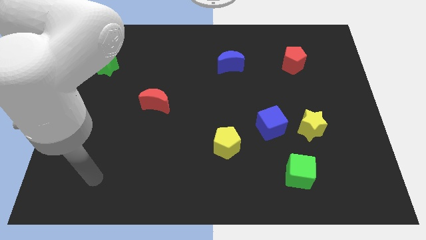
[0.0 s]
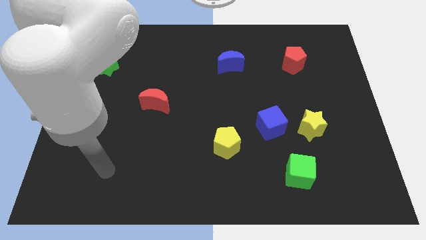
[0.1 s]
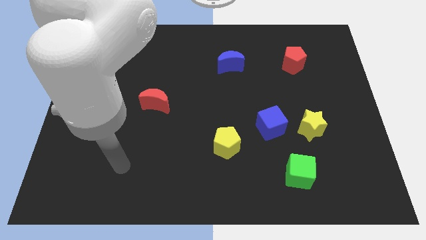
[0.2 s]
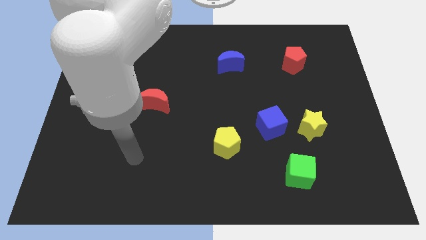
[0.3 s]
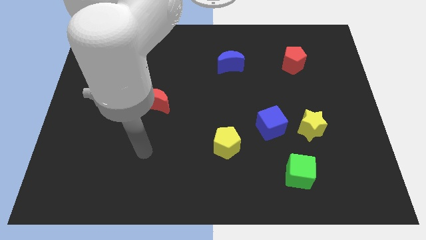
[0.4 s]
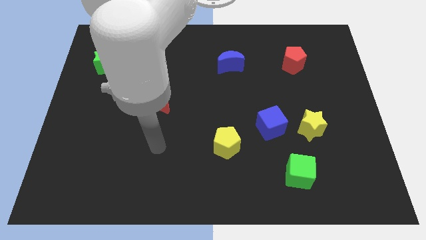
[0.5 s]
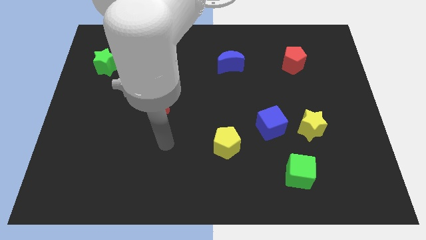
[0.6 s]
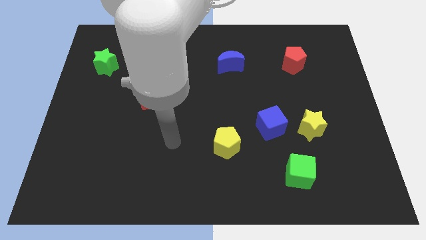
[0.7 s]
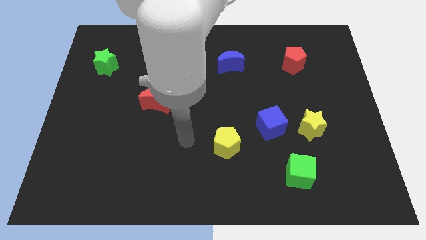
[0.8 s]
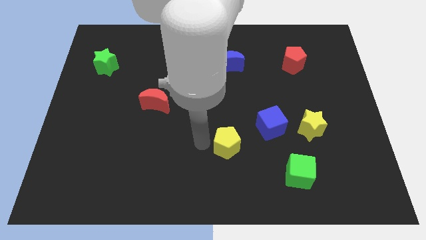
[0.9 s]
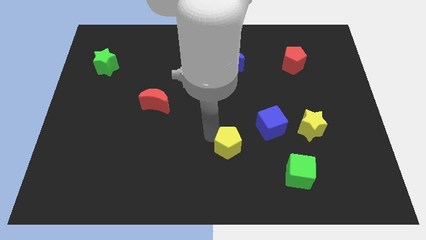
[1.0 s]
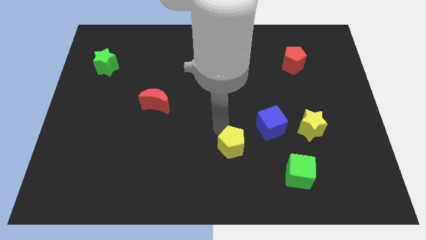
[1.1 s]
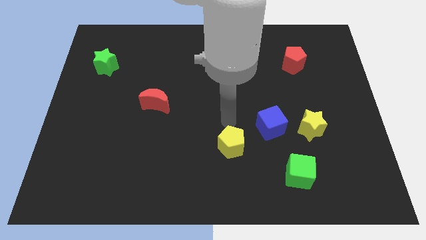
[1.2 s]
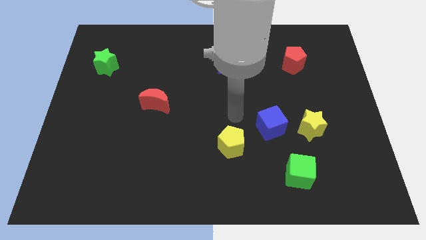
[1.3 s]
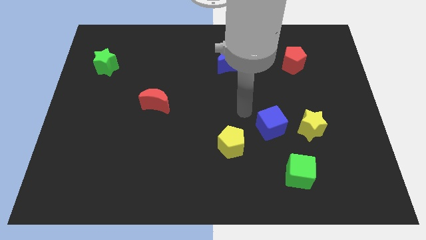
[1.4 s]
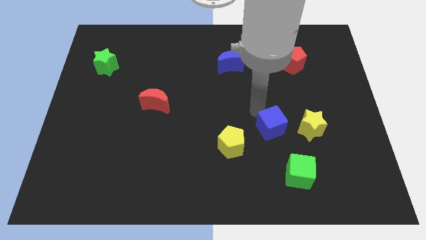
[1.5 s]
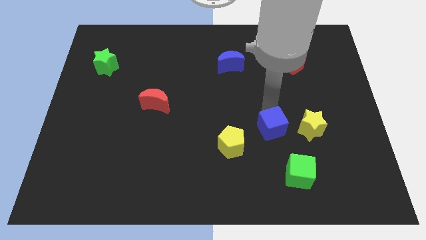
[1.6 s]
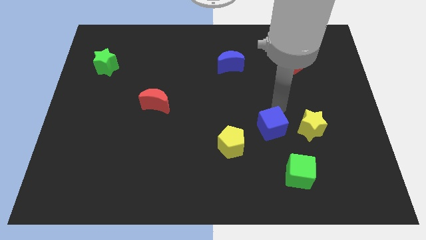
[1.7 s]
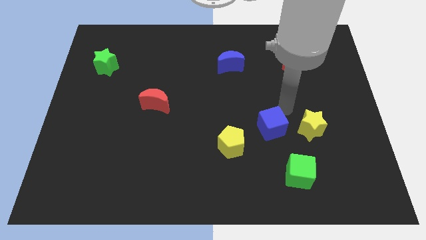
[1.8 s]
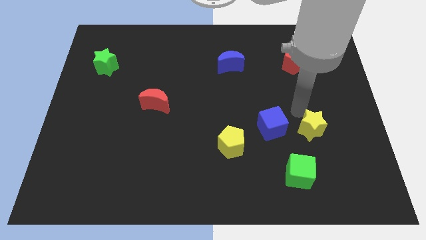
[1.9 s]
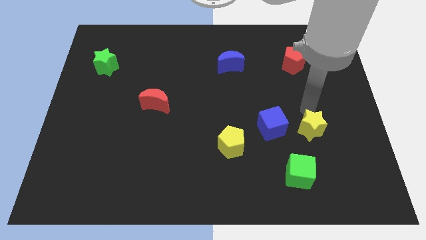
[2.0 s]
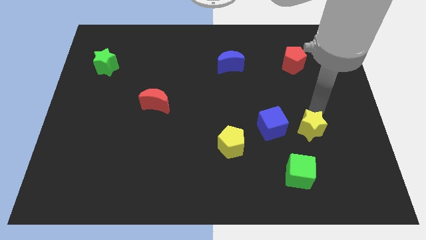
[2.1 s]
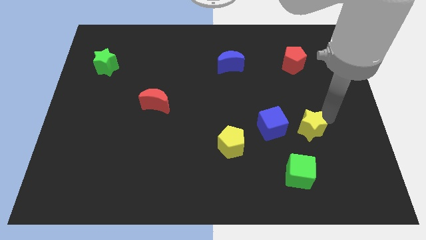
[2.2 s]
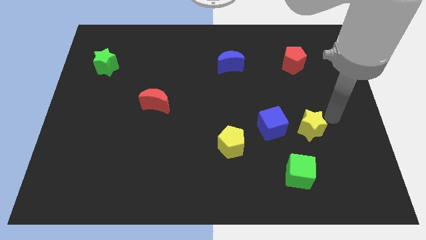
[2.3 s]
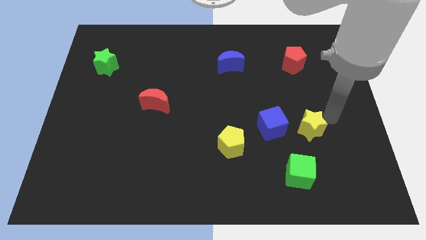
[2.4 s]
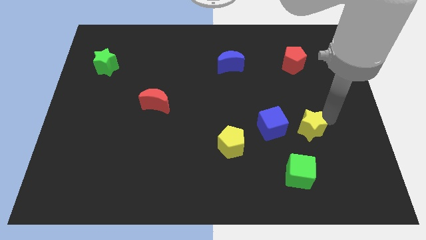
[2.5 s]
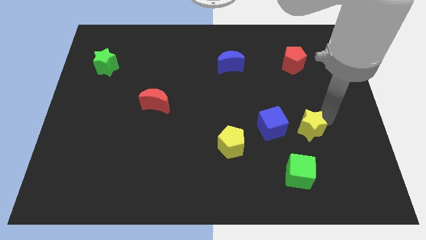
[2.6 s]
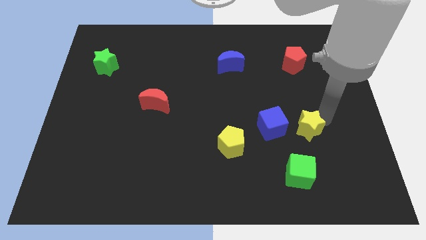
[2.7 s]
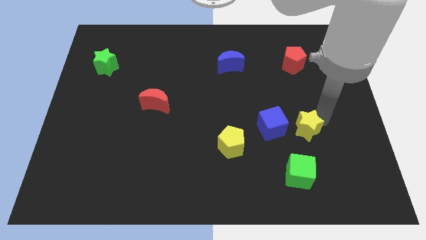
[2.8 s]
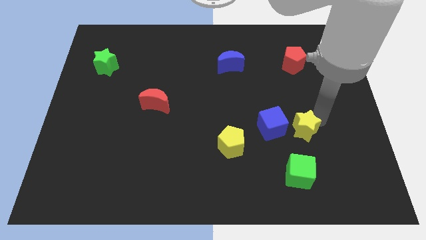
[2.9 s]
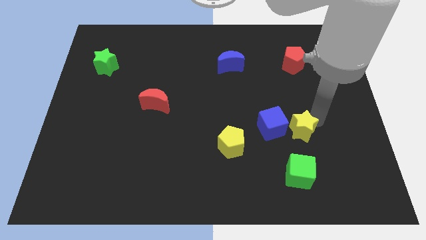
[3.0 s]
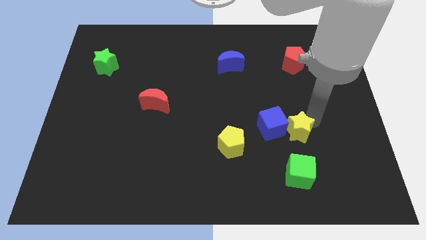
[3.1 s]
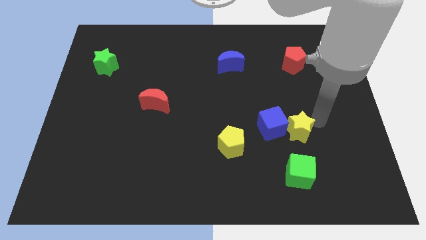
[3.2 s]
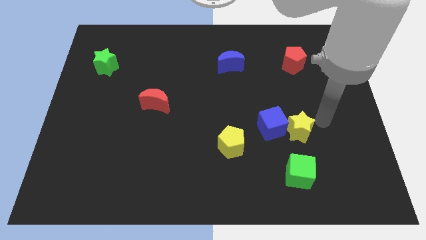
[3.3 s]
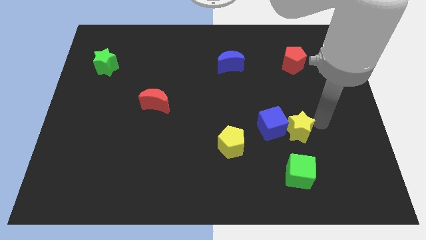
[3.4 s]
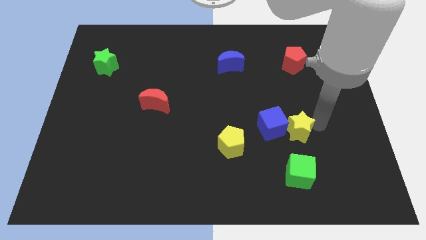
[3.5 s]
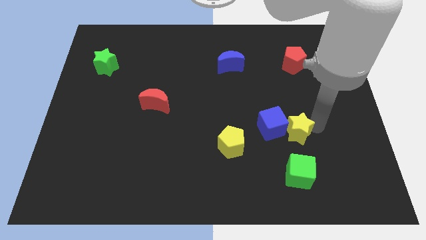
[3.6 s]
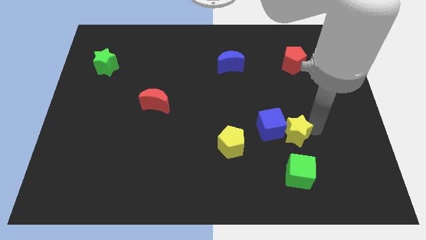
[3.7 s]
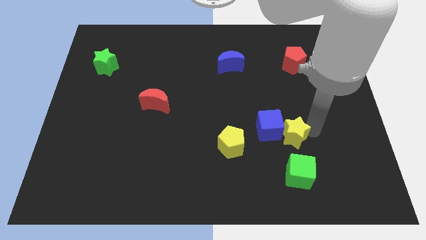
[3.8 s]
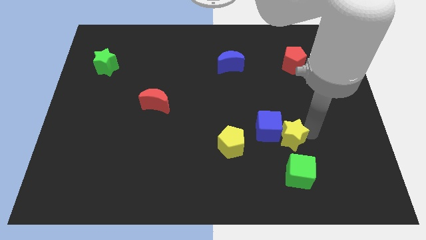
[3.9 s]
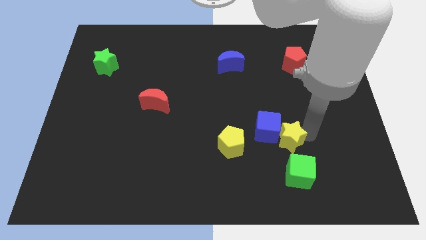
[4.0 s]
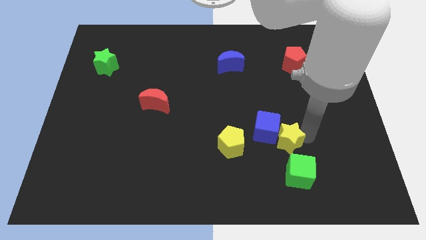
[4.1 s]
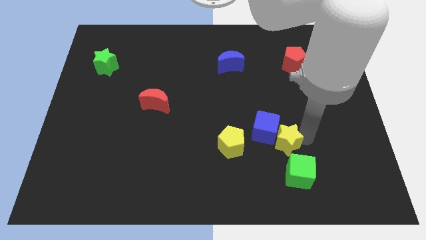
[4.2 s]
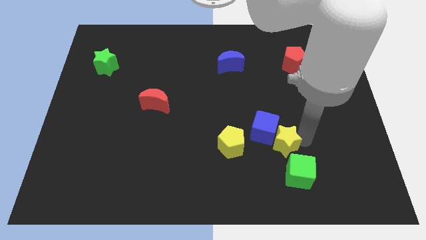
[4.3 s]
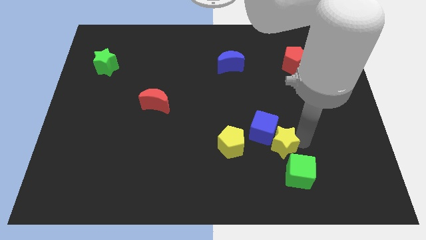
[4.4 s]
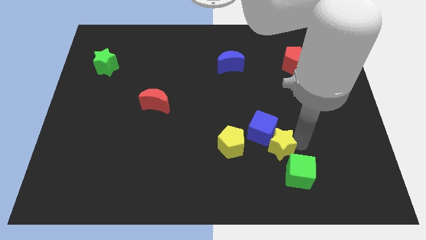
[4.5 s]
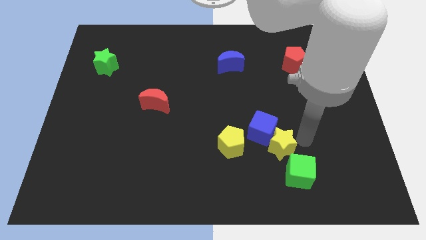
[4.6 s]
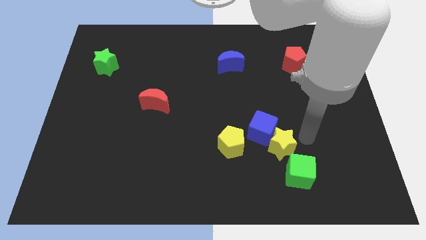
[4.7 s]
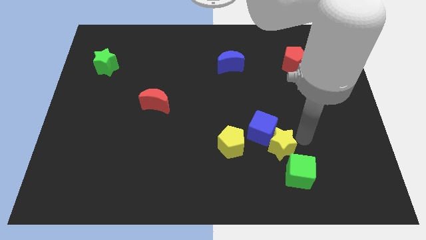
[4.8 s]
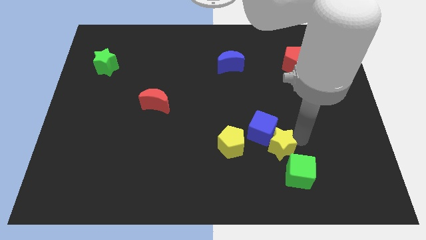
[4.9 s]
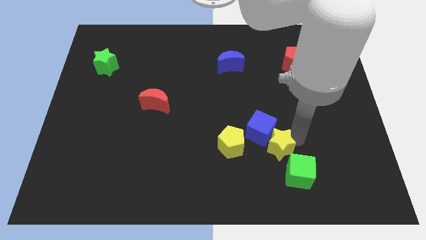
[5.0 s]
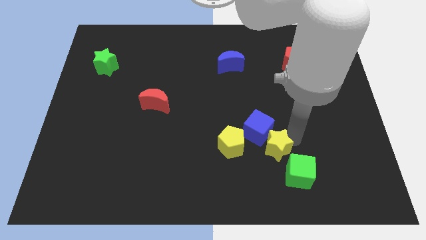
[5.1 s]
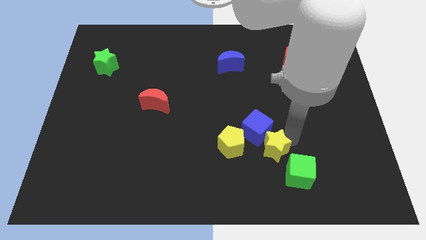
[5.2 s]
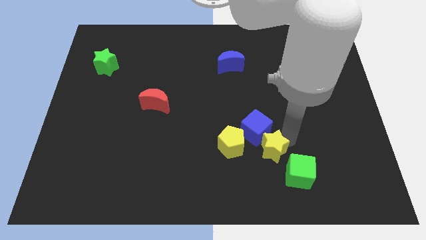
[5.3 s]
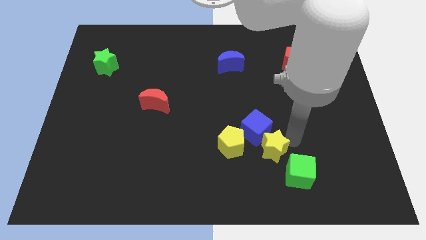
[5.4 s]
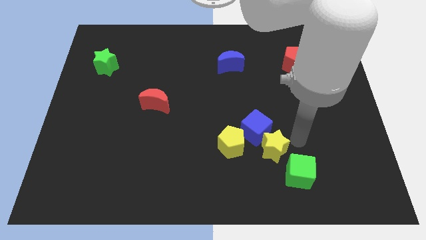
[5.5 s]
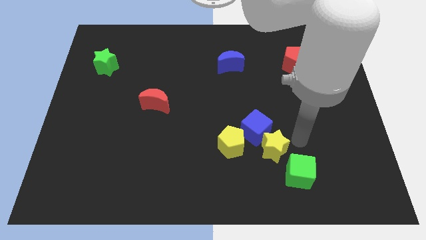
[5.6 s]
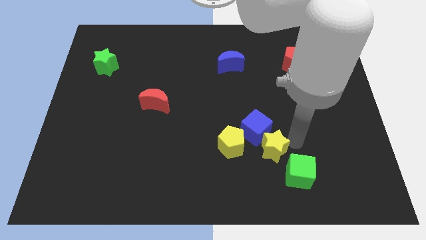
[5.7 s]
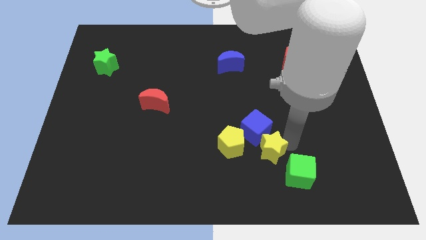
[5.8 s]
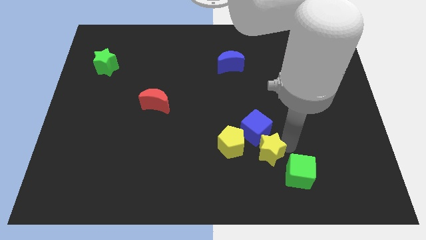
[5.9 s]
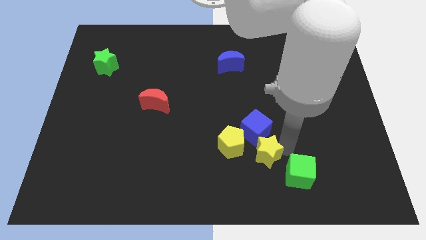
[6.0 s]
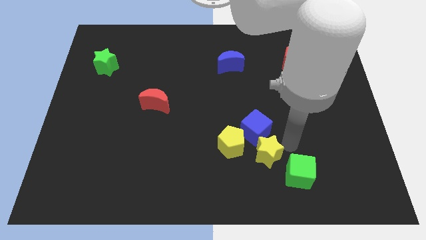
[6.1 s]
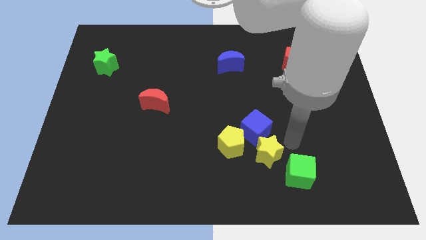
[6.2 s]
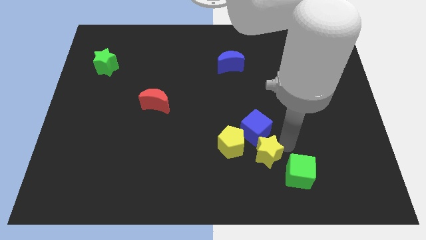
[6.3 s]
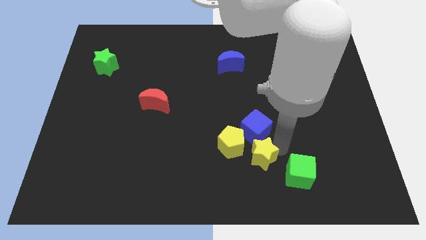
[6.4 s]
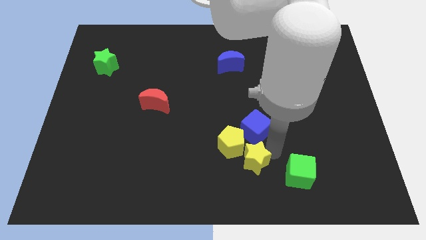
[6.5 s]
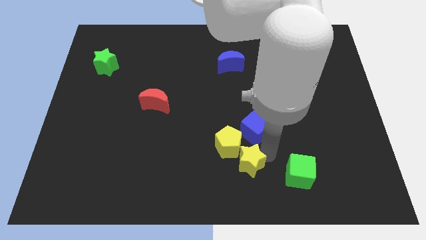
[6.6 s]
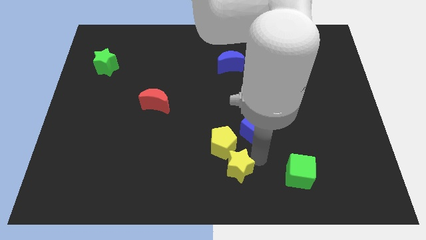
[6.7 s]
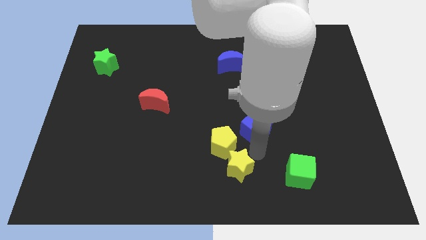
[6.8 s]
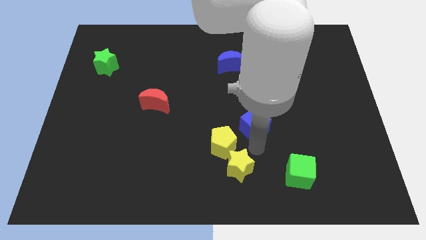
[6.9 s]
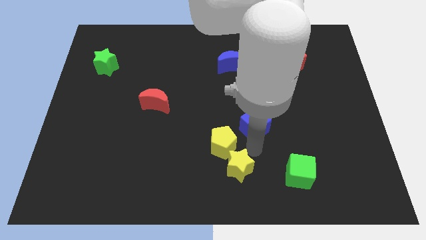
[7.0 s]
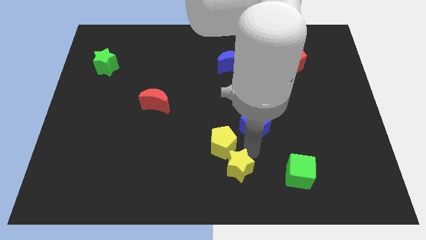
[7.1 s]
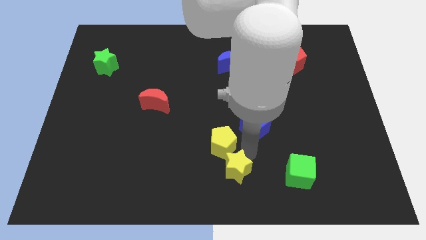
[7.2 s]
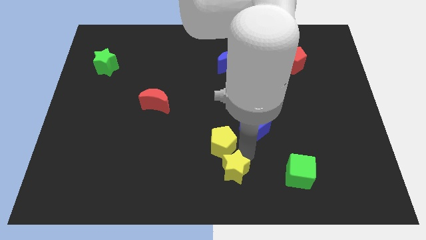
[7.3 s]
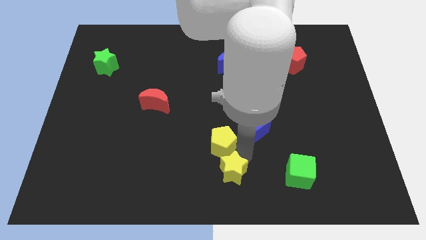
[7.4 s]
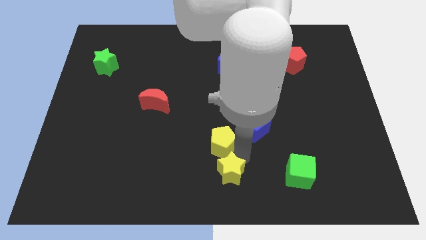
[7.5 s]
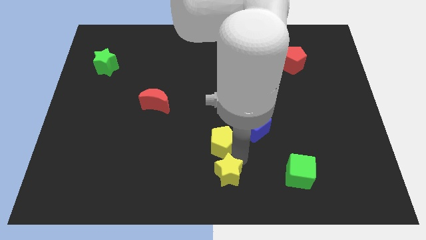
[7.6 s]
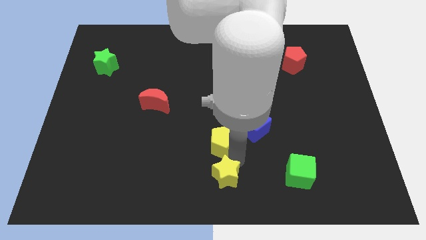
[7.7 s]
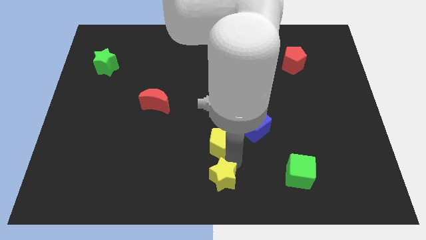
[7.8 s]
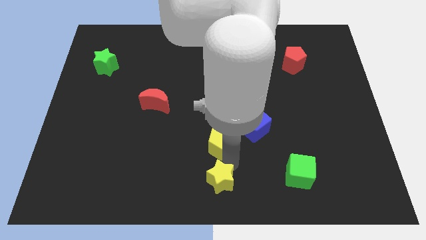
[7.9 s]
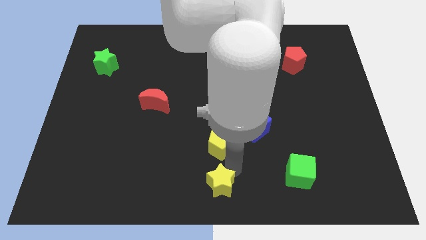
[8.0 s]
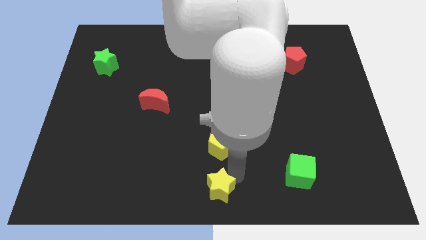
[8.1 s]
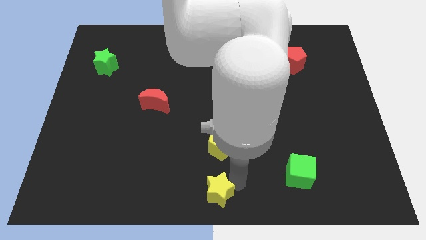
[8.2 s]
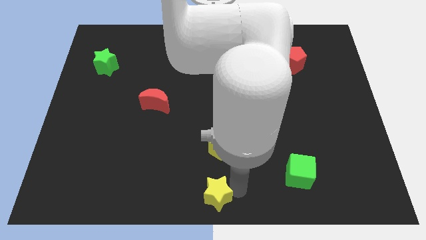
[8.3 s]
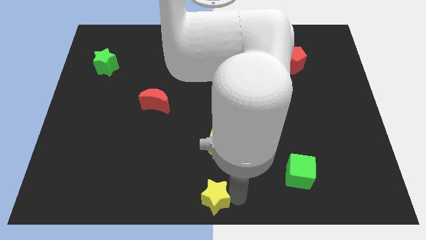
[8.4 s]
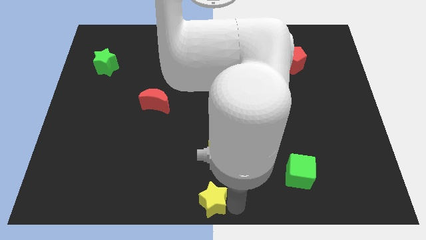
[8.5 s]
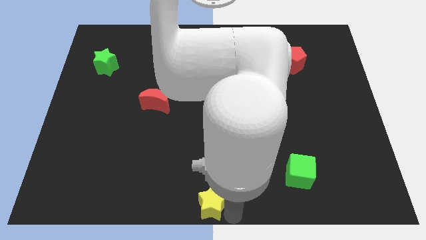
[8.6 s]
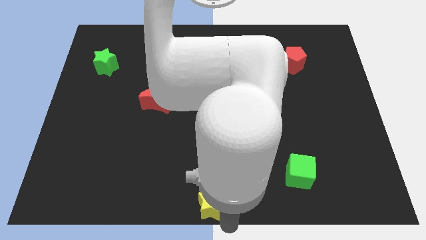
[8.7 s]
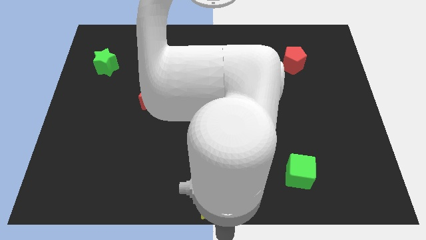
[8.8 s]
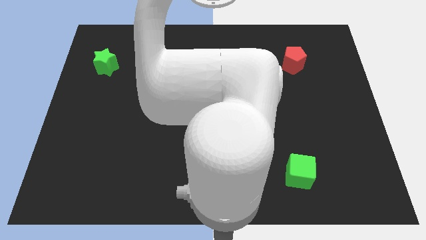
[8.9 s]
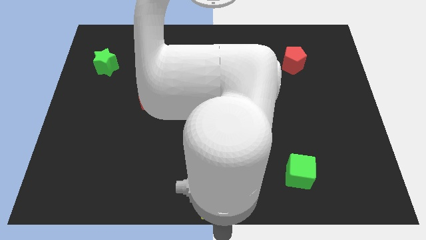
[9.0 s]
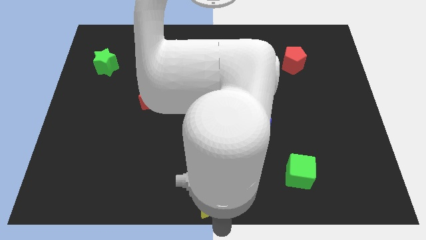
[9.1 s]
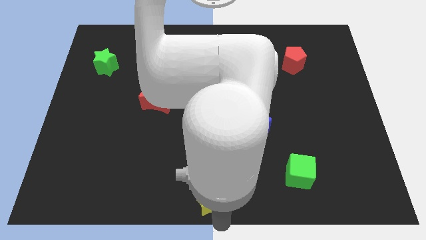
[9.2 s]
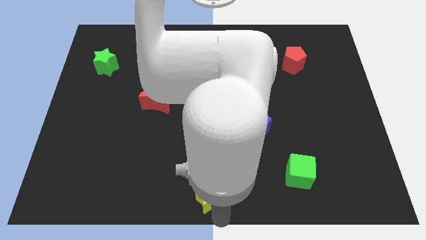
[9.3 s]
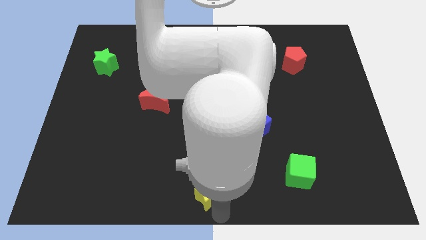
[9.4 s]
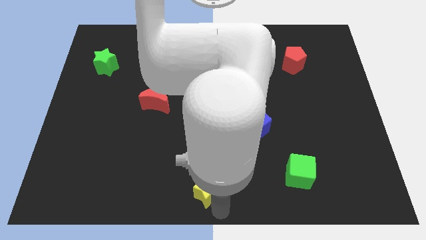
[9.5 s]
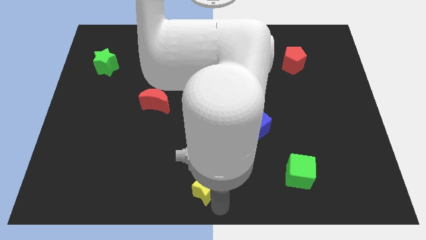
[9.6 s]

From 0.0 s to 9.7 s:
slide the yellow star to the bottom left of the yellow pentagon
